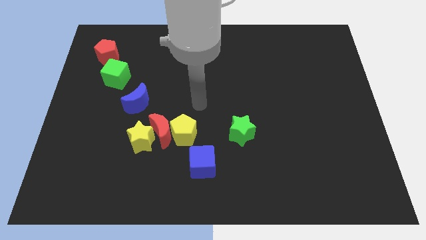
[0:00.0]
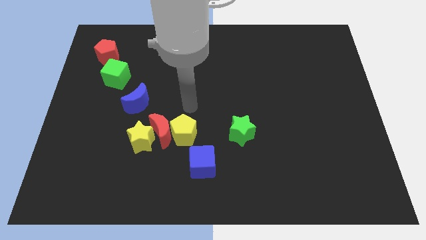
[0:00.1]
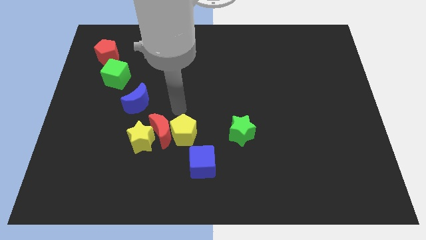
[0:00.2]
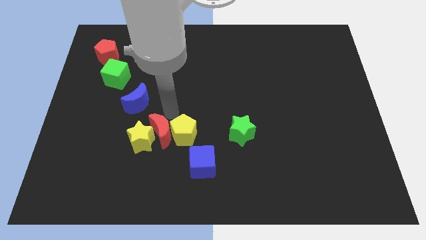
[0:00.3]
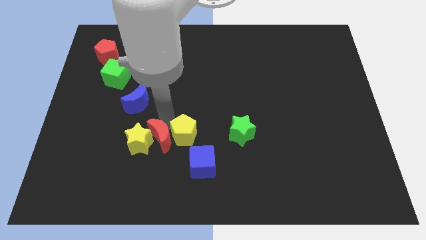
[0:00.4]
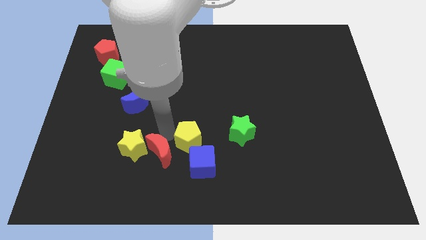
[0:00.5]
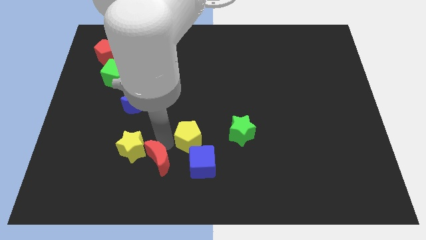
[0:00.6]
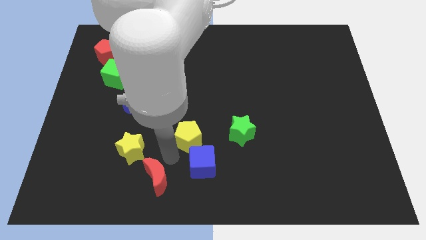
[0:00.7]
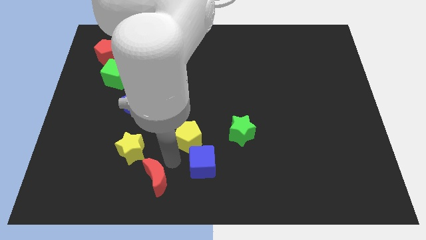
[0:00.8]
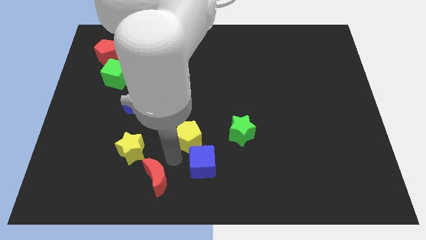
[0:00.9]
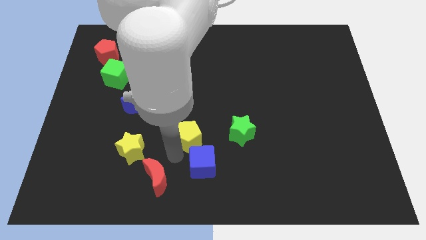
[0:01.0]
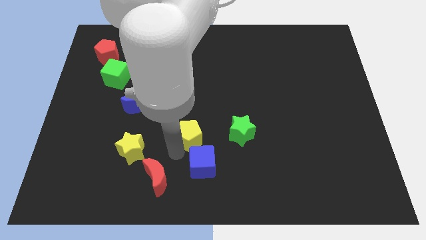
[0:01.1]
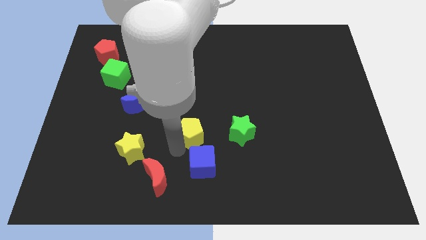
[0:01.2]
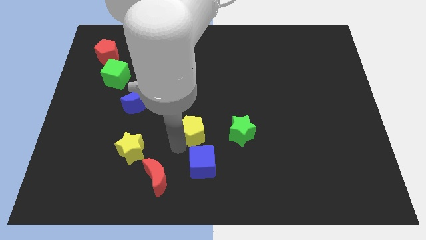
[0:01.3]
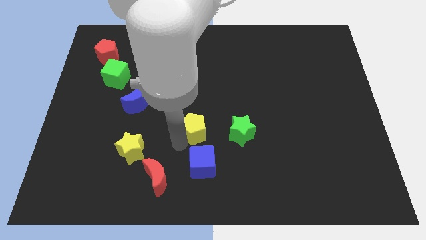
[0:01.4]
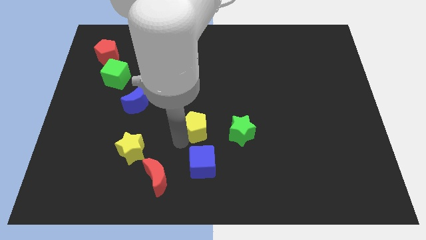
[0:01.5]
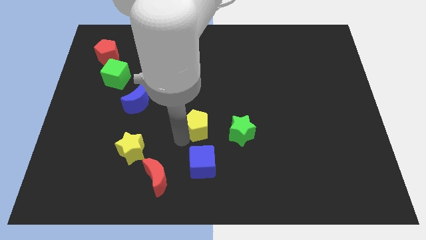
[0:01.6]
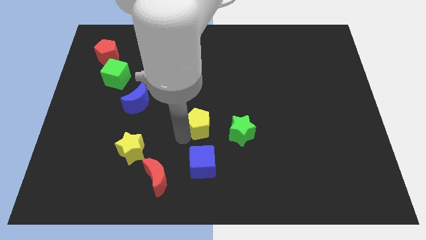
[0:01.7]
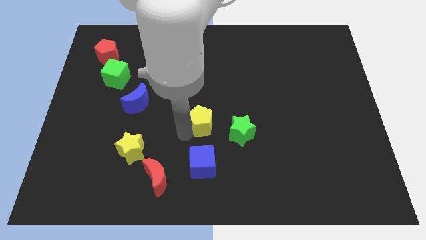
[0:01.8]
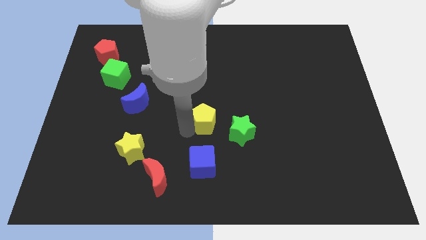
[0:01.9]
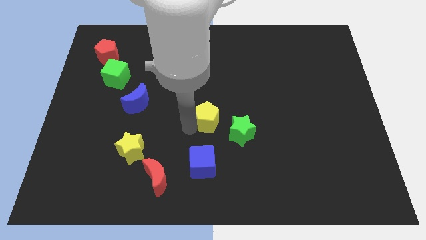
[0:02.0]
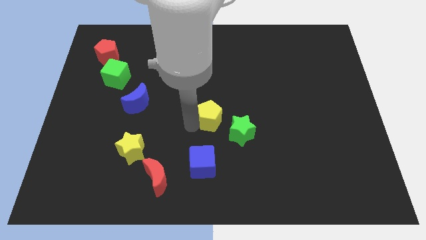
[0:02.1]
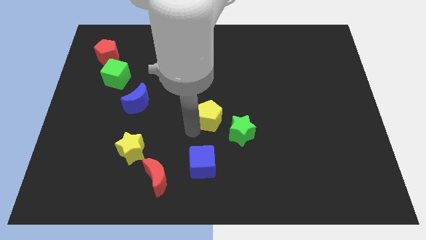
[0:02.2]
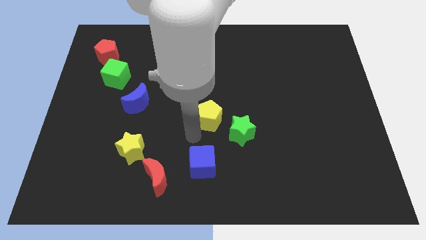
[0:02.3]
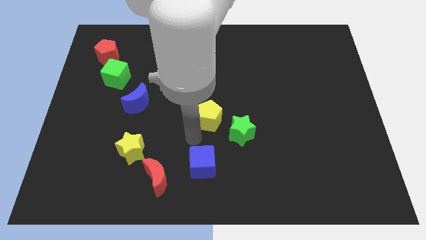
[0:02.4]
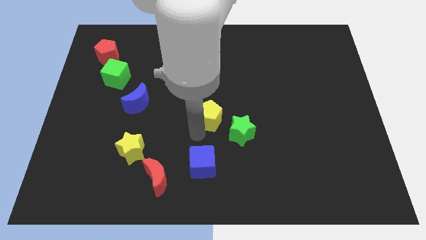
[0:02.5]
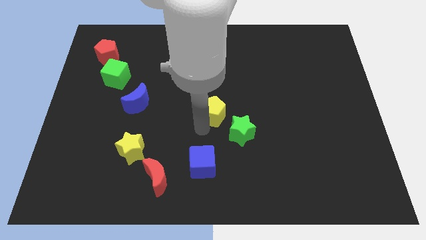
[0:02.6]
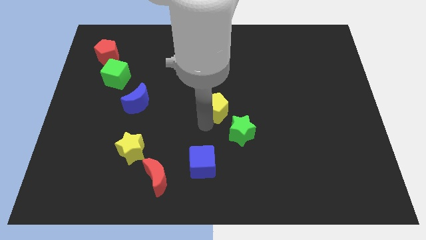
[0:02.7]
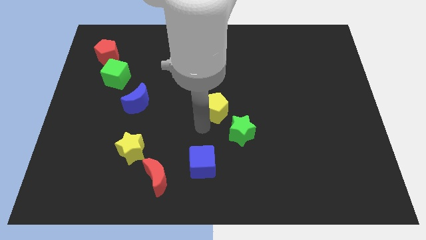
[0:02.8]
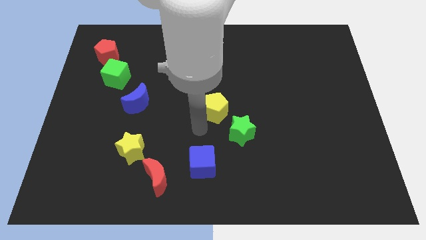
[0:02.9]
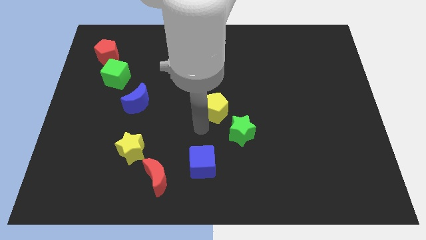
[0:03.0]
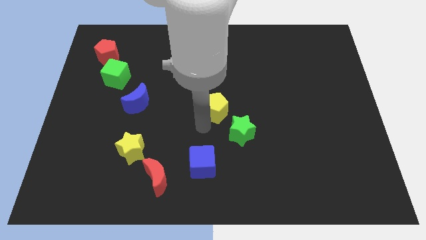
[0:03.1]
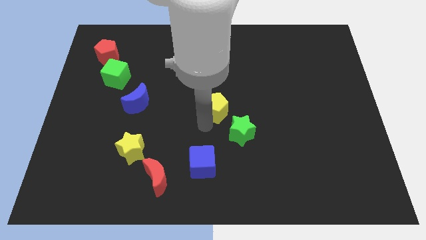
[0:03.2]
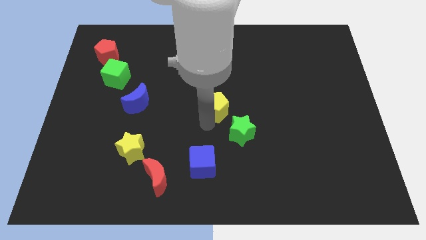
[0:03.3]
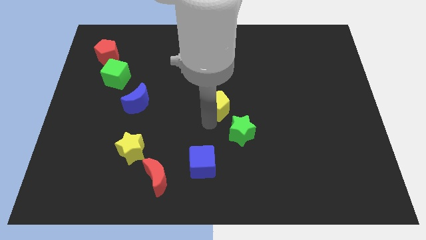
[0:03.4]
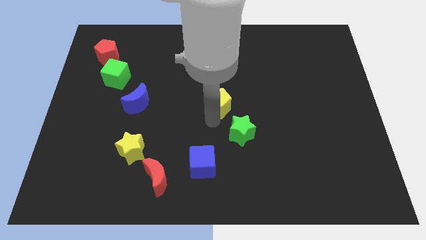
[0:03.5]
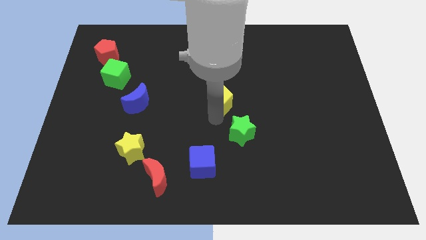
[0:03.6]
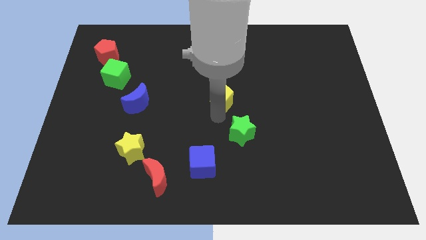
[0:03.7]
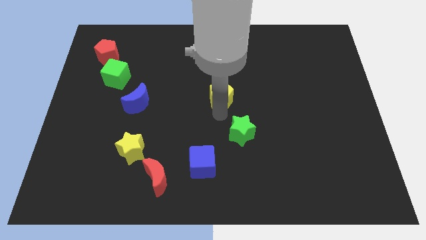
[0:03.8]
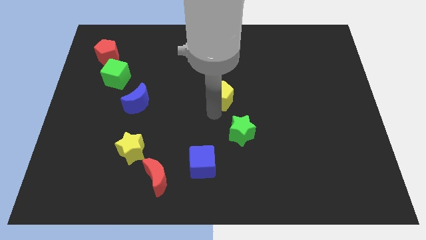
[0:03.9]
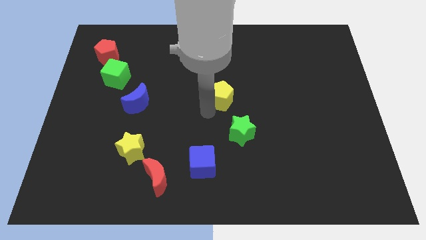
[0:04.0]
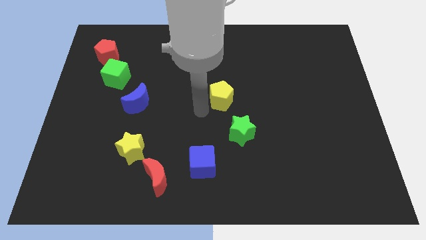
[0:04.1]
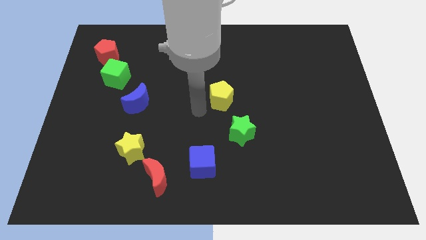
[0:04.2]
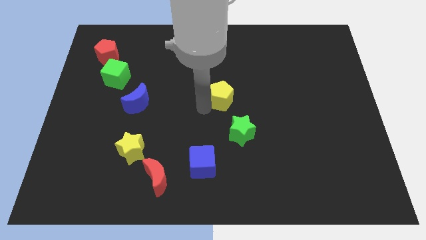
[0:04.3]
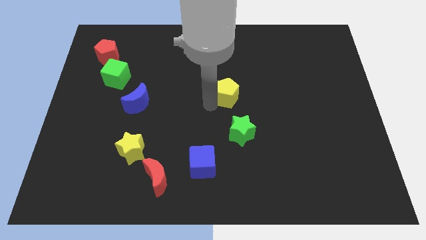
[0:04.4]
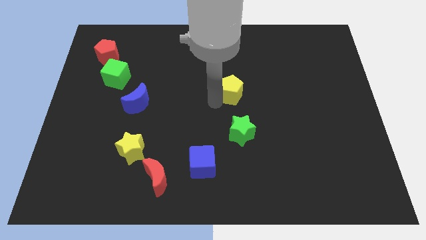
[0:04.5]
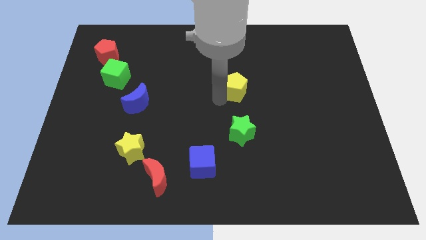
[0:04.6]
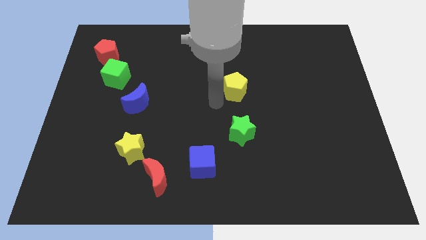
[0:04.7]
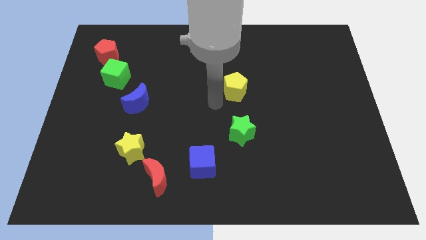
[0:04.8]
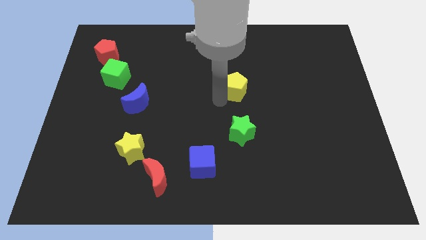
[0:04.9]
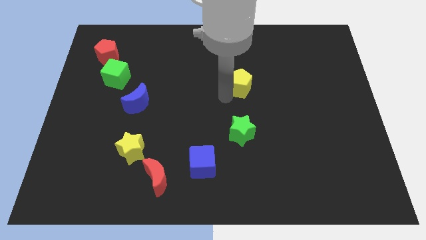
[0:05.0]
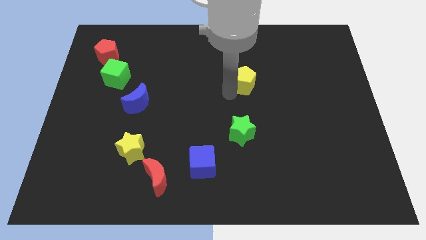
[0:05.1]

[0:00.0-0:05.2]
push the yellow pentagon upwards and then right

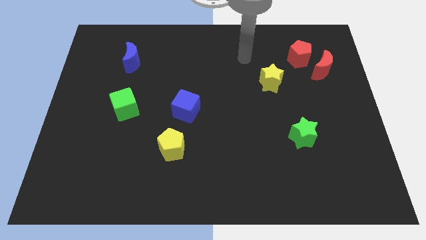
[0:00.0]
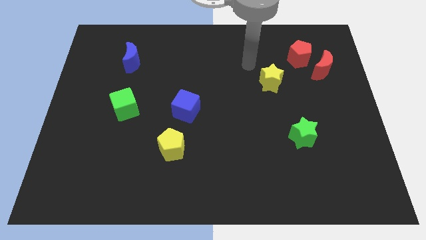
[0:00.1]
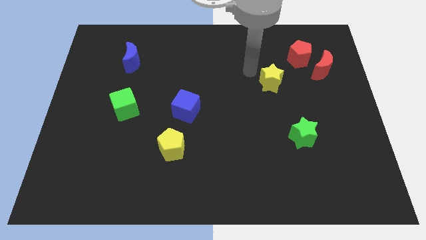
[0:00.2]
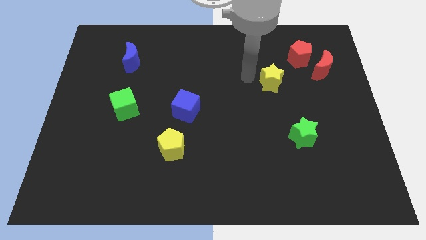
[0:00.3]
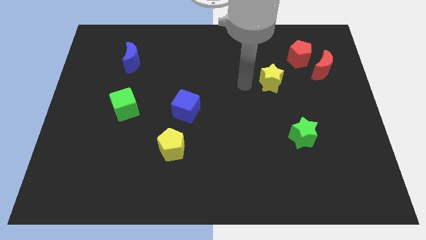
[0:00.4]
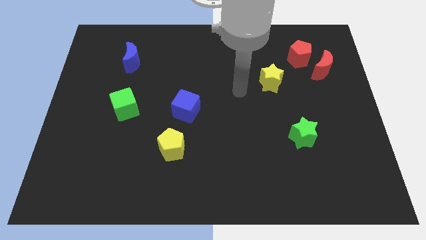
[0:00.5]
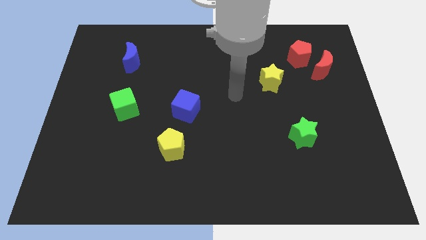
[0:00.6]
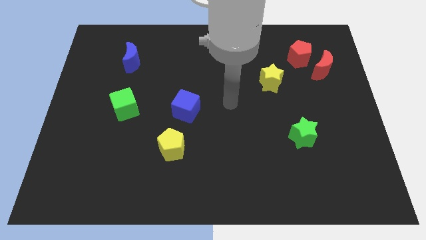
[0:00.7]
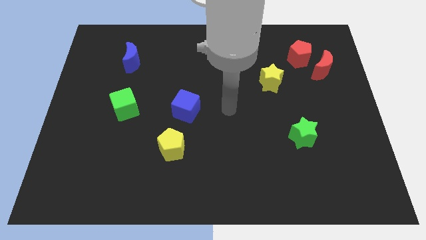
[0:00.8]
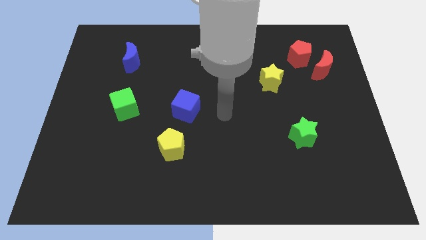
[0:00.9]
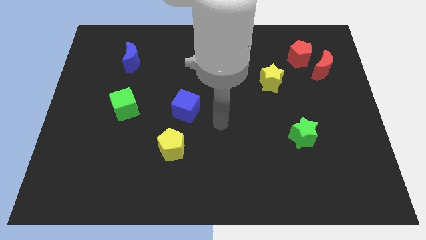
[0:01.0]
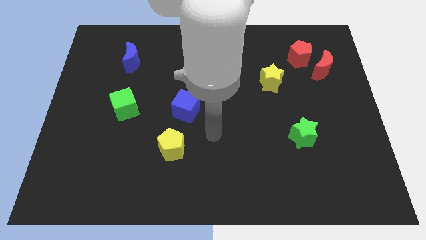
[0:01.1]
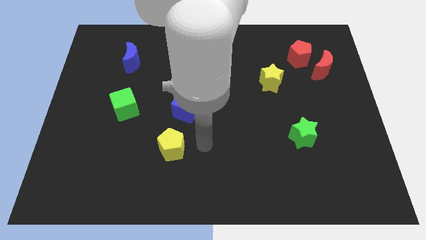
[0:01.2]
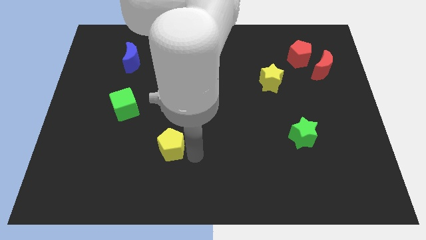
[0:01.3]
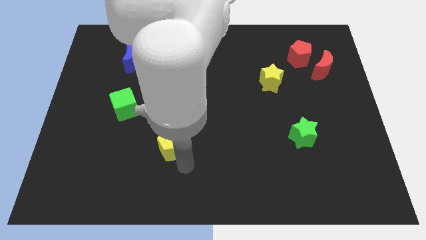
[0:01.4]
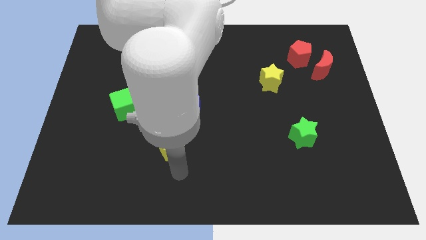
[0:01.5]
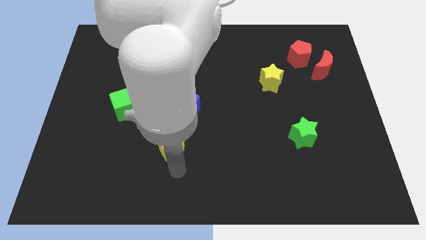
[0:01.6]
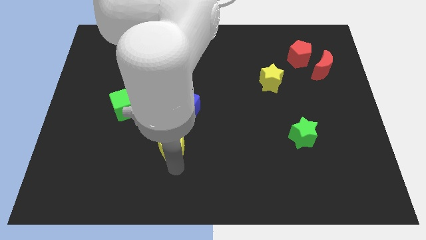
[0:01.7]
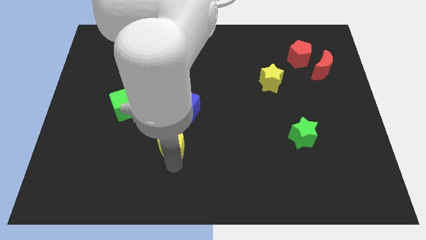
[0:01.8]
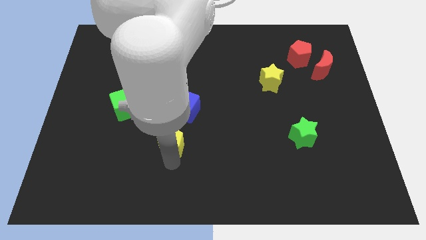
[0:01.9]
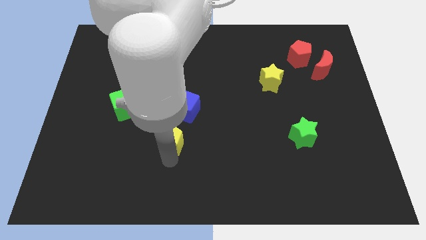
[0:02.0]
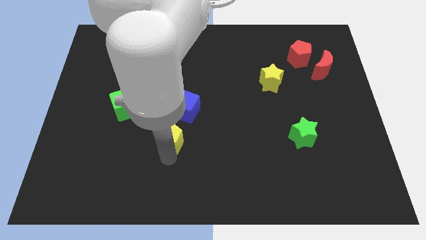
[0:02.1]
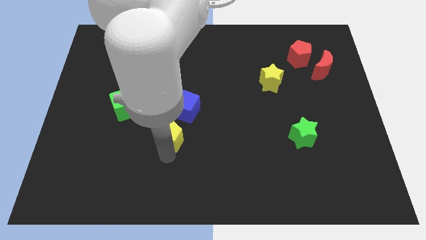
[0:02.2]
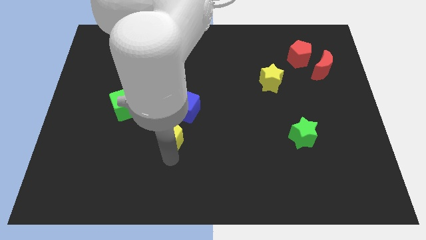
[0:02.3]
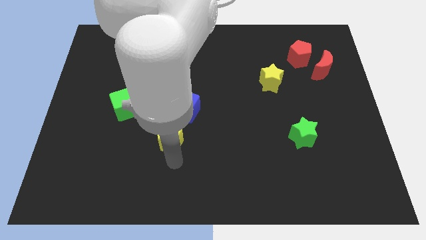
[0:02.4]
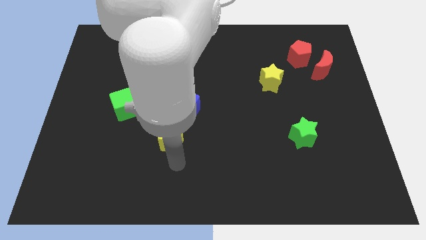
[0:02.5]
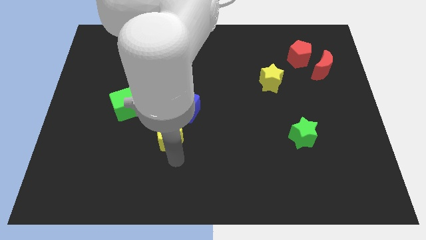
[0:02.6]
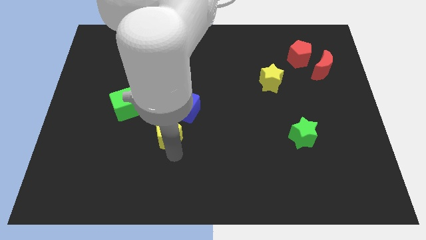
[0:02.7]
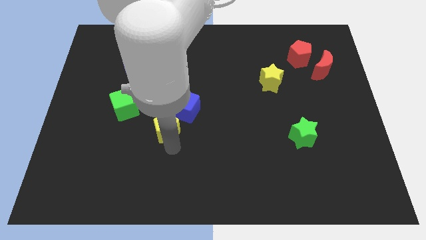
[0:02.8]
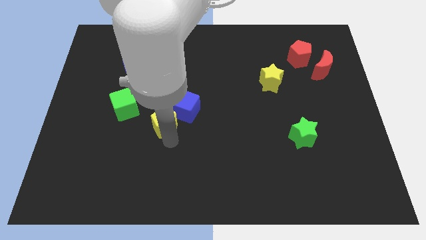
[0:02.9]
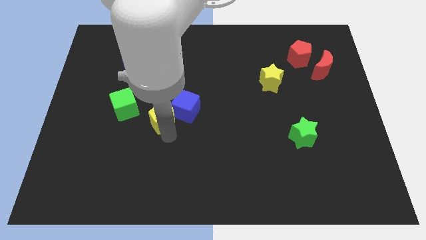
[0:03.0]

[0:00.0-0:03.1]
slide the yellow pentagon a bit up
